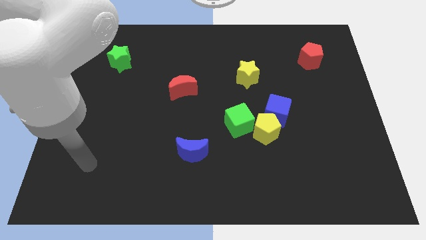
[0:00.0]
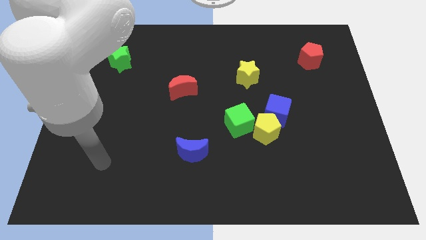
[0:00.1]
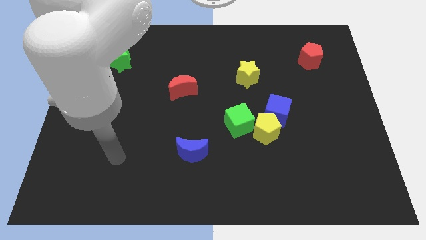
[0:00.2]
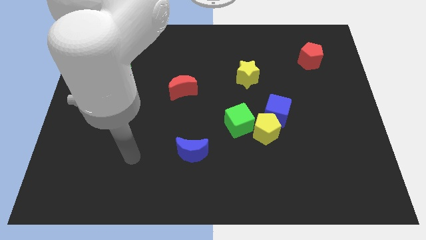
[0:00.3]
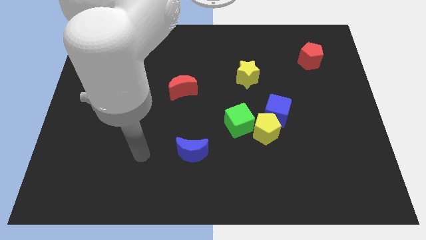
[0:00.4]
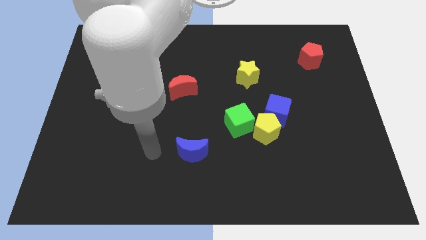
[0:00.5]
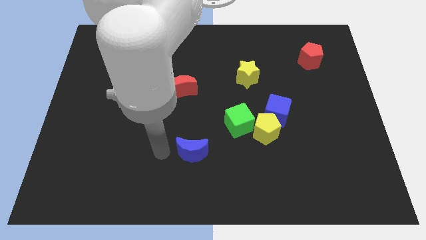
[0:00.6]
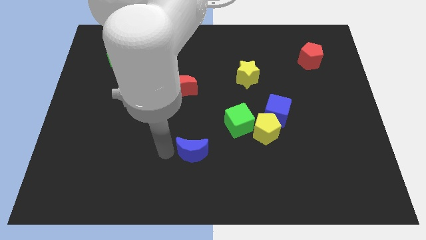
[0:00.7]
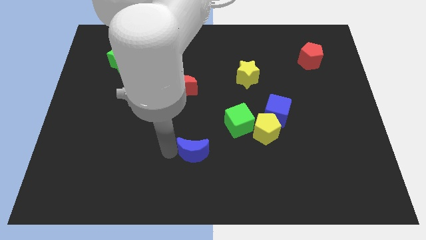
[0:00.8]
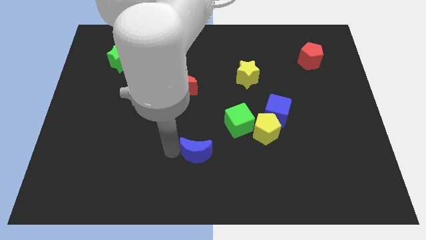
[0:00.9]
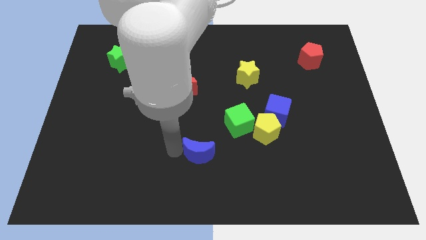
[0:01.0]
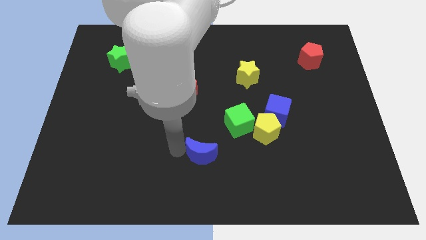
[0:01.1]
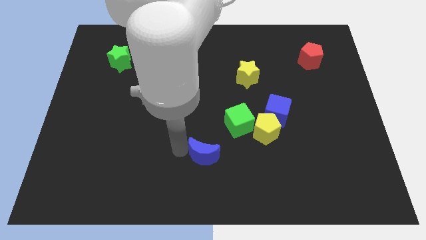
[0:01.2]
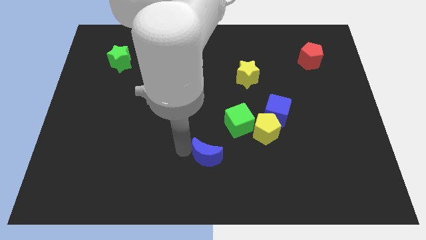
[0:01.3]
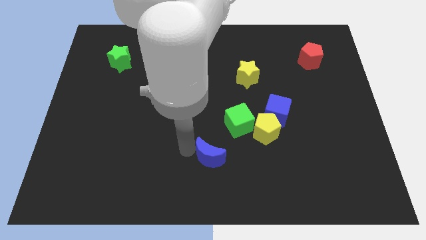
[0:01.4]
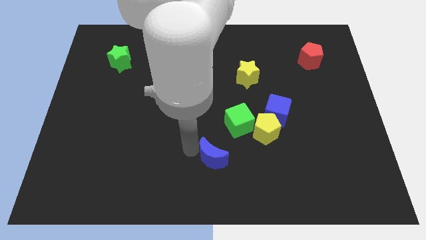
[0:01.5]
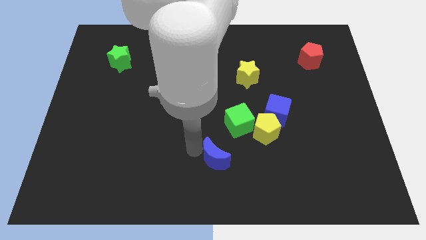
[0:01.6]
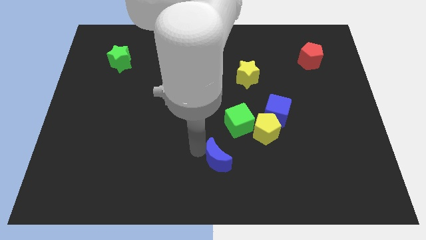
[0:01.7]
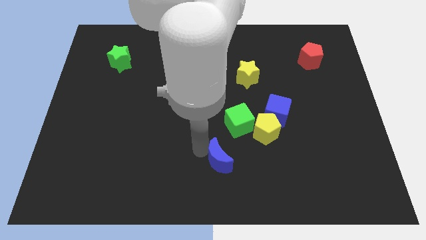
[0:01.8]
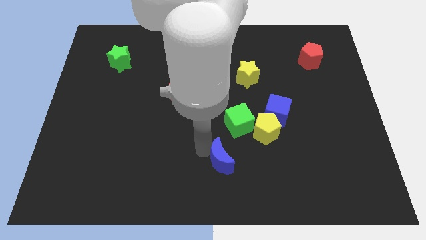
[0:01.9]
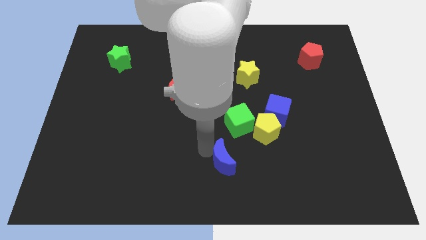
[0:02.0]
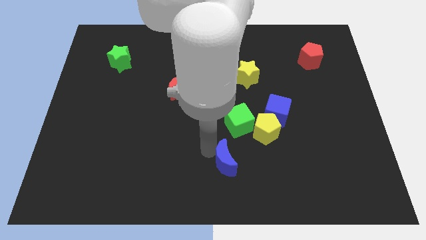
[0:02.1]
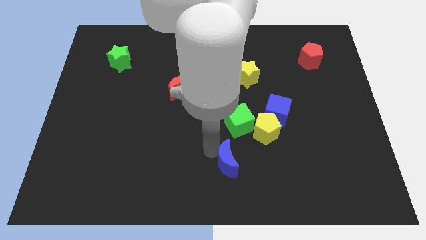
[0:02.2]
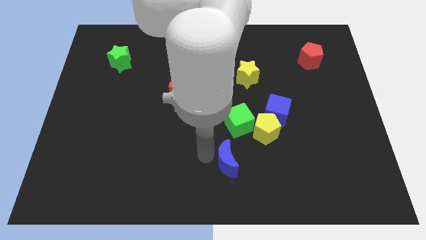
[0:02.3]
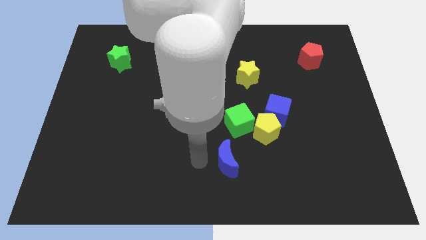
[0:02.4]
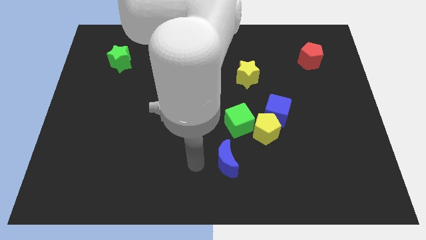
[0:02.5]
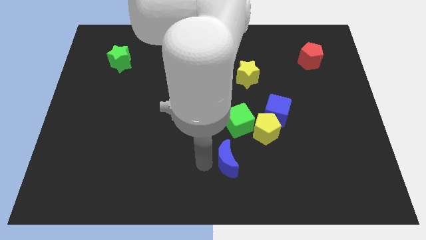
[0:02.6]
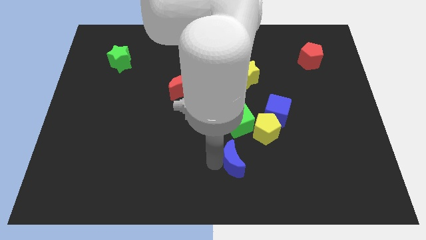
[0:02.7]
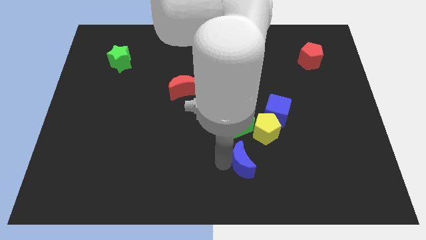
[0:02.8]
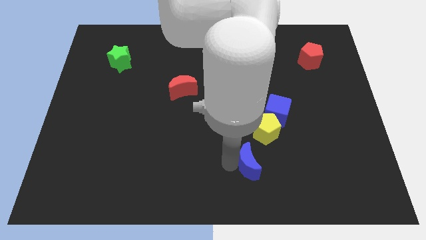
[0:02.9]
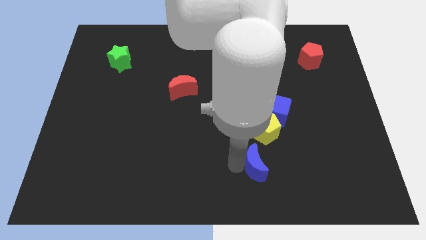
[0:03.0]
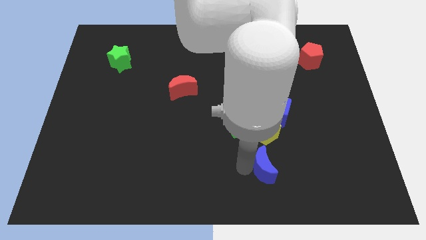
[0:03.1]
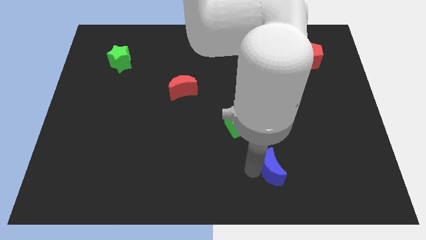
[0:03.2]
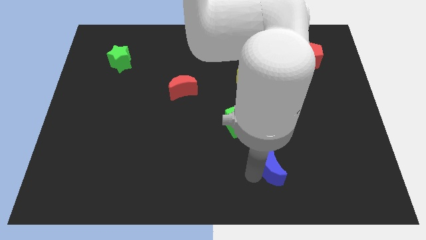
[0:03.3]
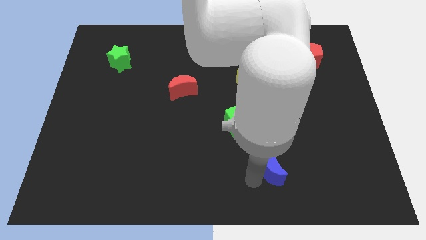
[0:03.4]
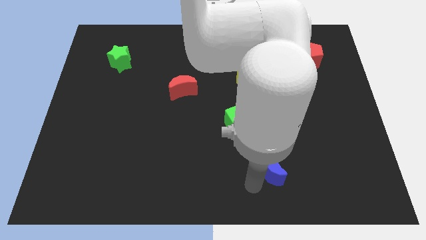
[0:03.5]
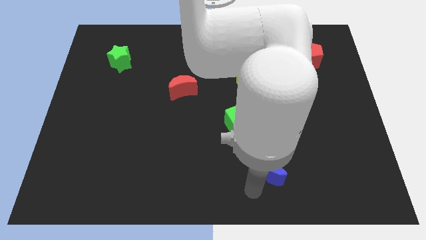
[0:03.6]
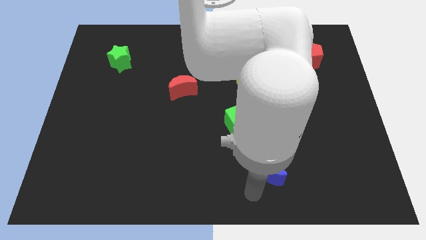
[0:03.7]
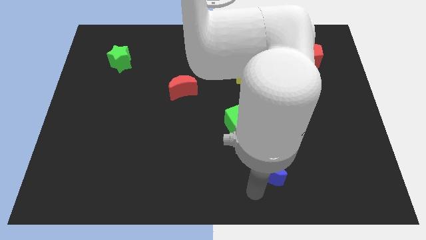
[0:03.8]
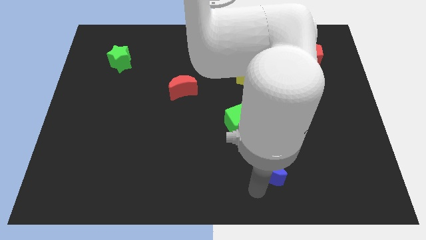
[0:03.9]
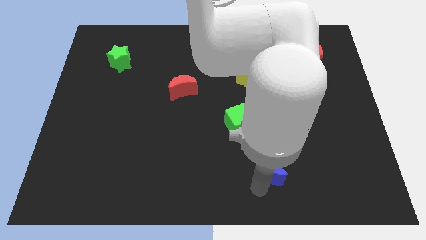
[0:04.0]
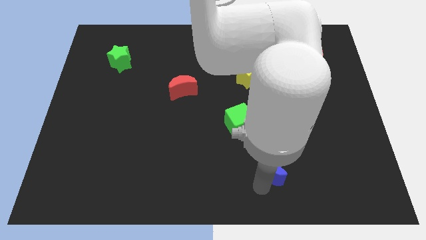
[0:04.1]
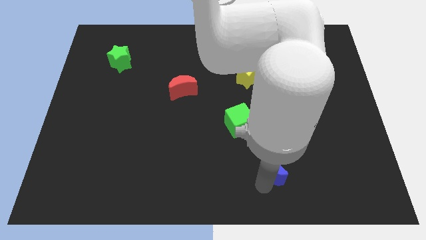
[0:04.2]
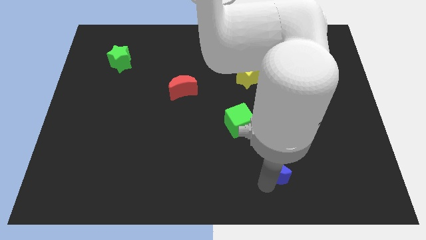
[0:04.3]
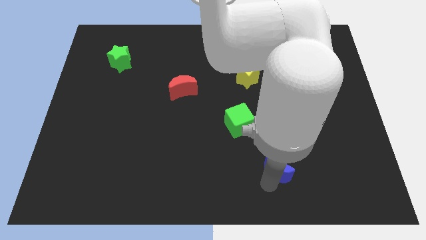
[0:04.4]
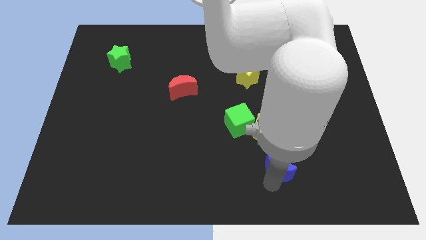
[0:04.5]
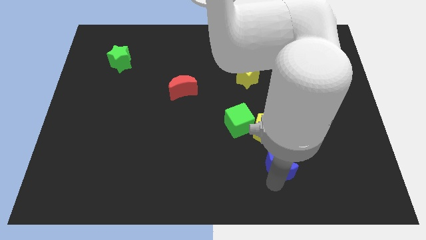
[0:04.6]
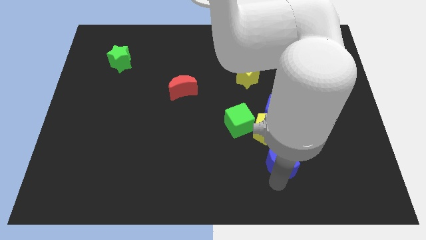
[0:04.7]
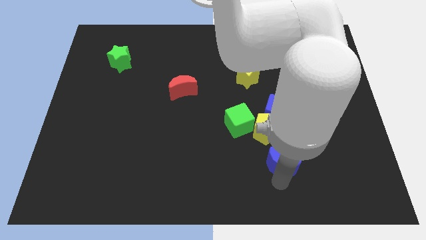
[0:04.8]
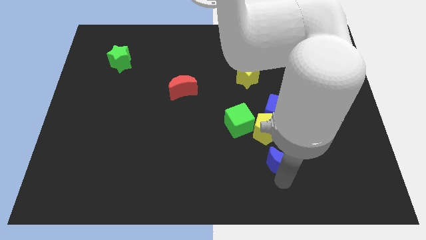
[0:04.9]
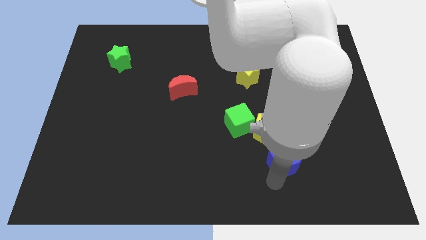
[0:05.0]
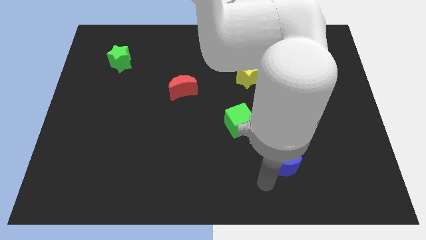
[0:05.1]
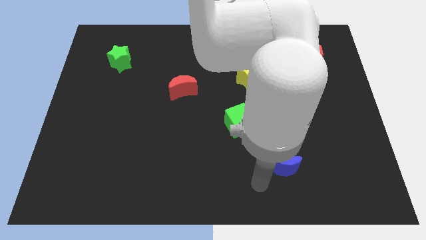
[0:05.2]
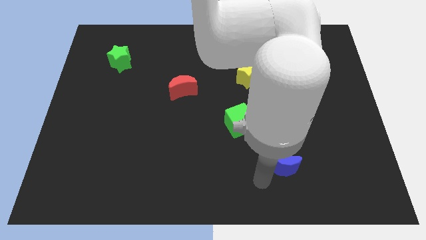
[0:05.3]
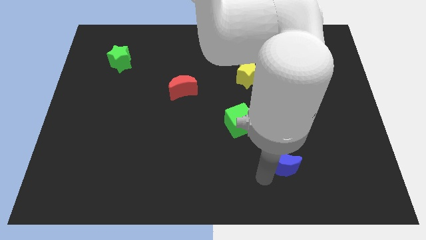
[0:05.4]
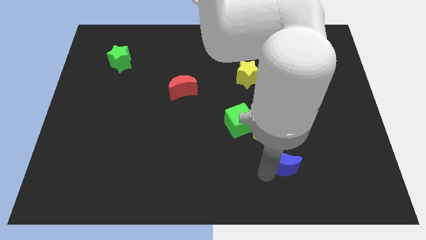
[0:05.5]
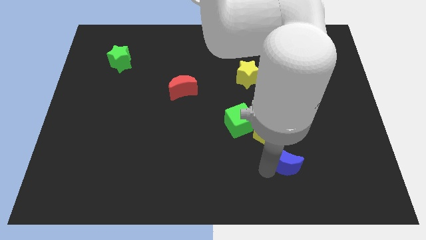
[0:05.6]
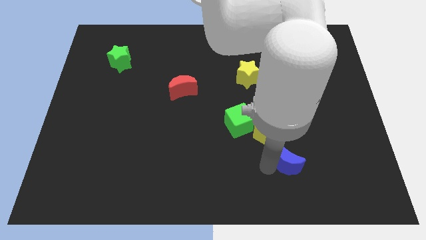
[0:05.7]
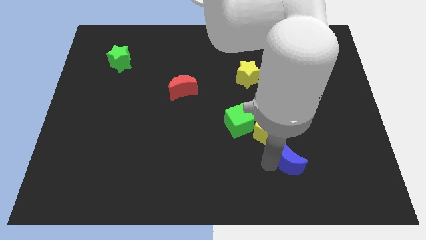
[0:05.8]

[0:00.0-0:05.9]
move the blue moon right

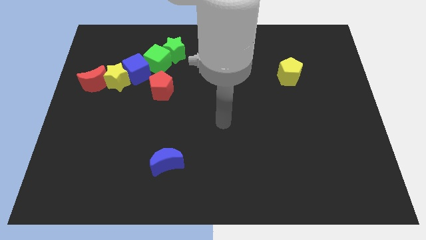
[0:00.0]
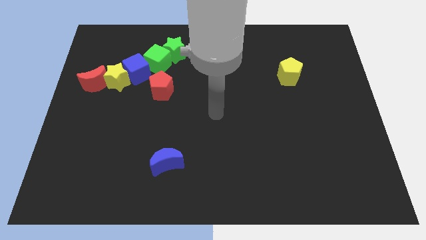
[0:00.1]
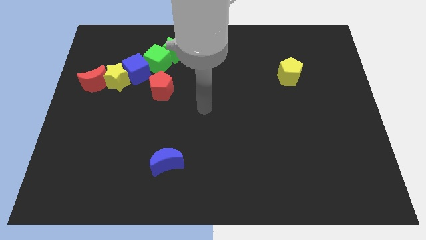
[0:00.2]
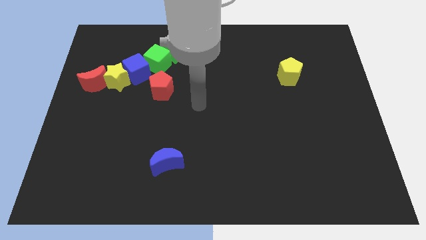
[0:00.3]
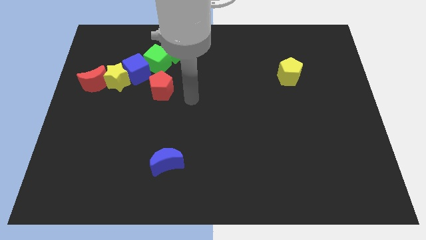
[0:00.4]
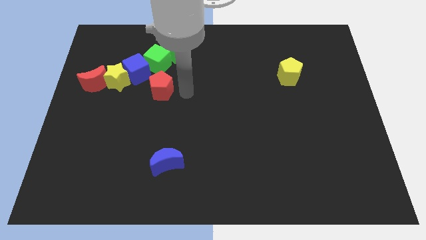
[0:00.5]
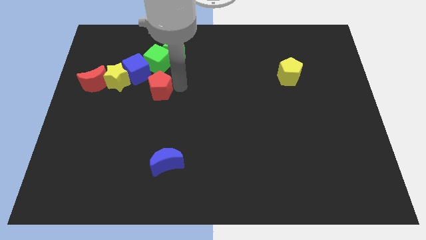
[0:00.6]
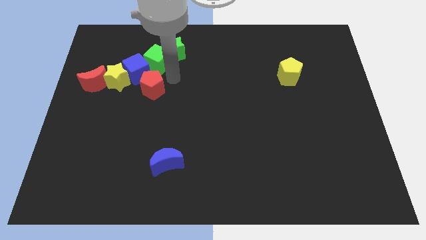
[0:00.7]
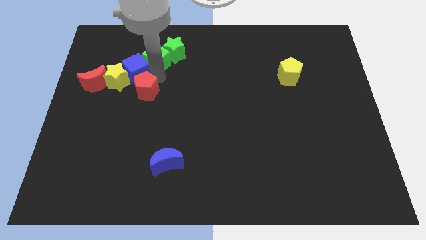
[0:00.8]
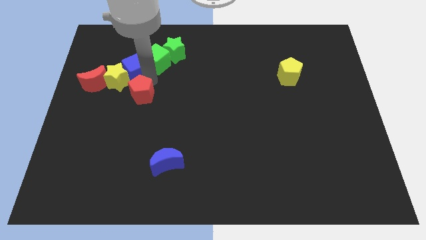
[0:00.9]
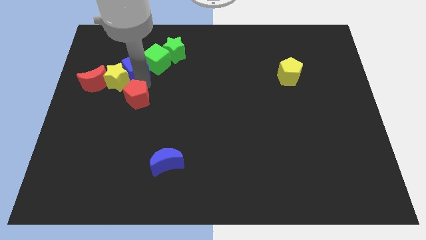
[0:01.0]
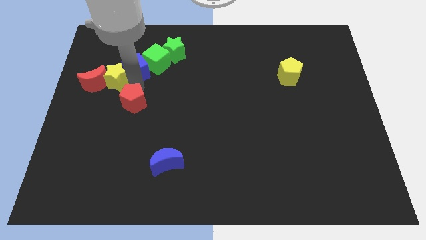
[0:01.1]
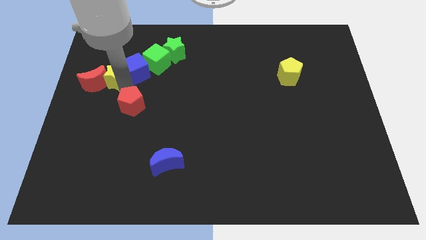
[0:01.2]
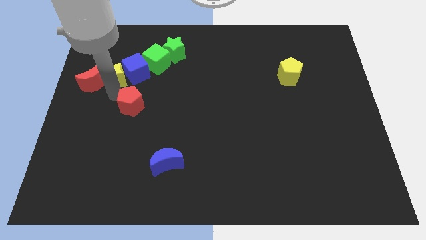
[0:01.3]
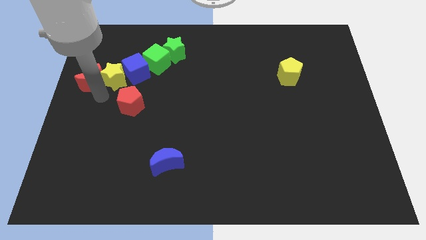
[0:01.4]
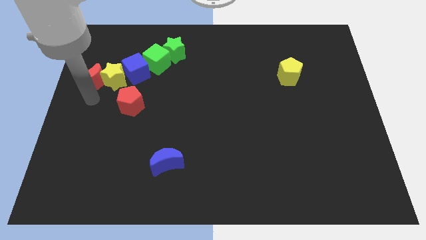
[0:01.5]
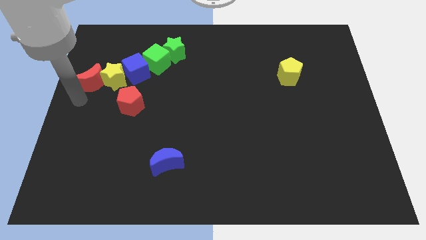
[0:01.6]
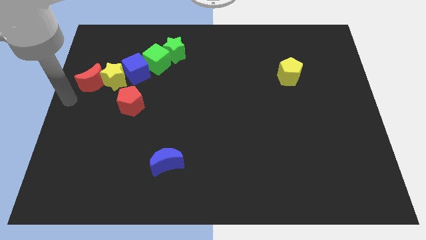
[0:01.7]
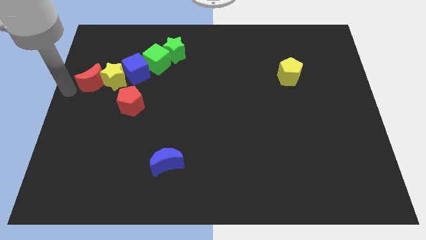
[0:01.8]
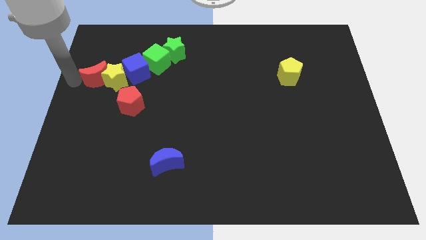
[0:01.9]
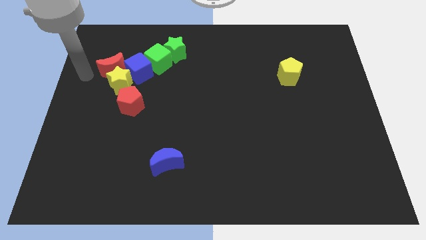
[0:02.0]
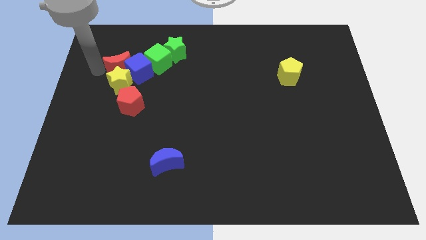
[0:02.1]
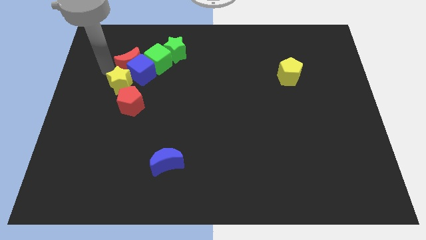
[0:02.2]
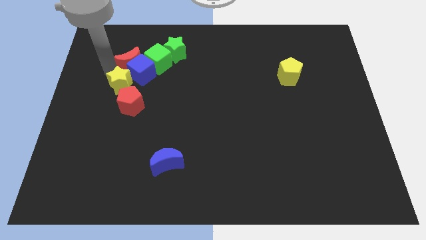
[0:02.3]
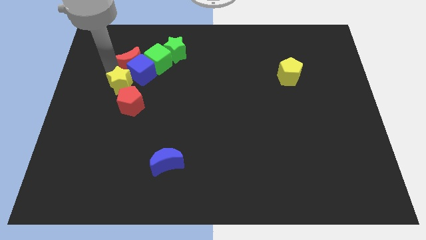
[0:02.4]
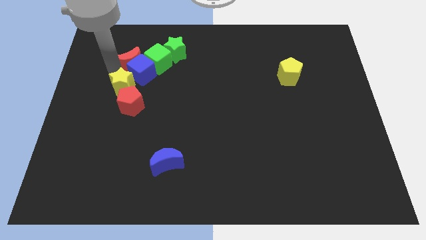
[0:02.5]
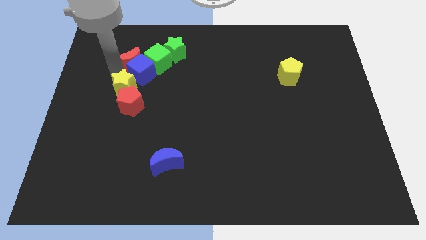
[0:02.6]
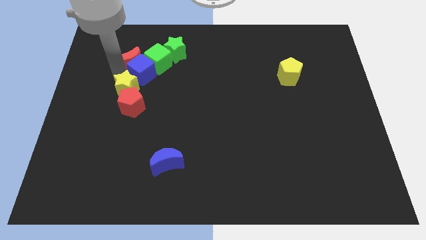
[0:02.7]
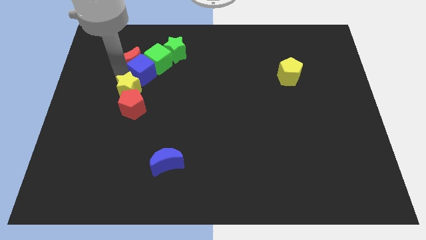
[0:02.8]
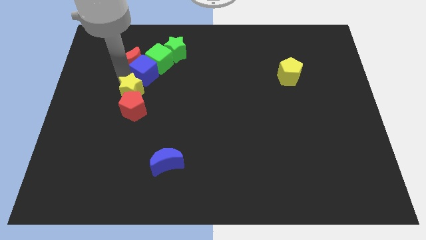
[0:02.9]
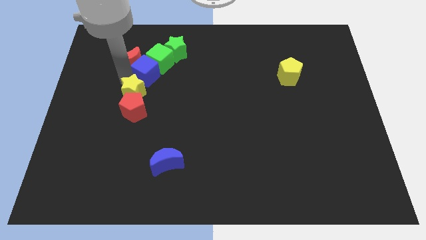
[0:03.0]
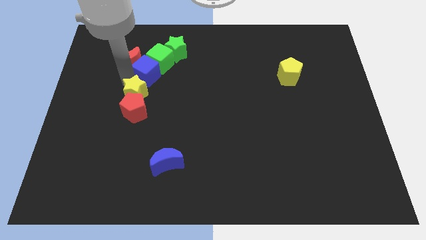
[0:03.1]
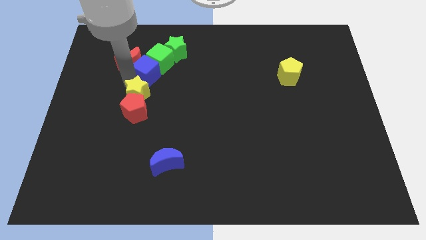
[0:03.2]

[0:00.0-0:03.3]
move the yellow star a little downwards and right
